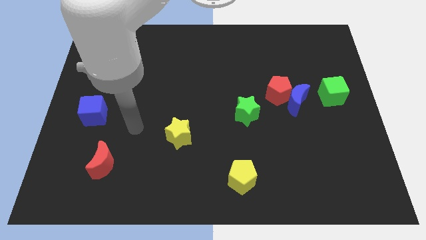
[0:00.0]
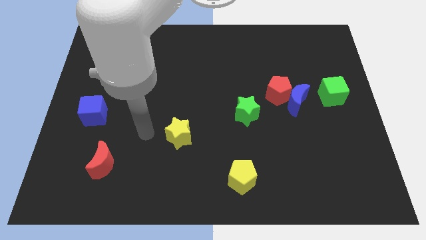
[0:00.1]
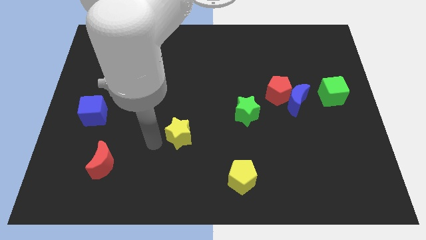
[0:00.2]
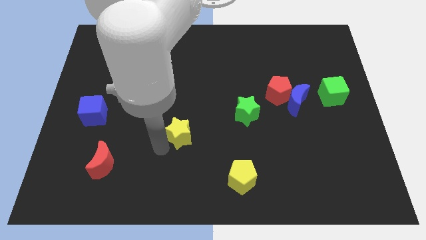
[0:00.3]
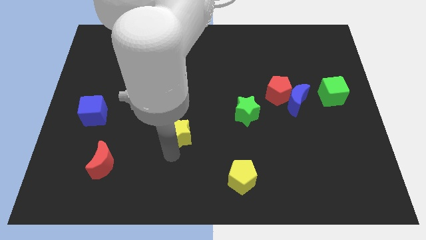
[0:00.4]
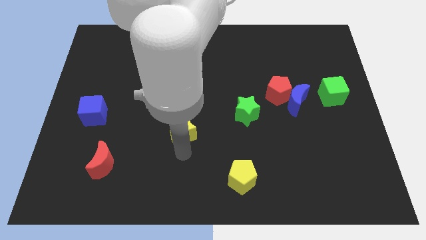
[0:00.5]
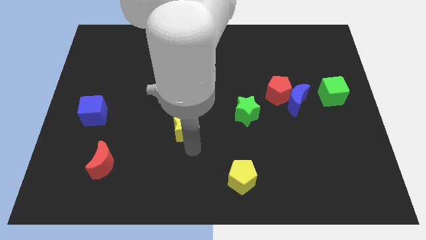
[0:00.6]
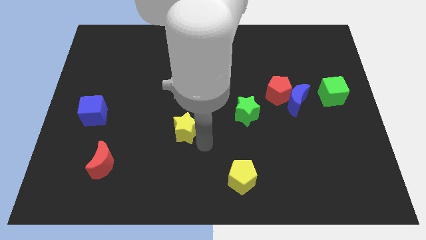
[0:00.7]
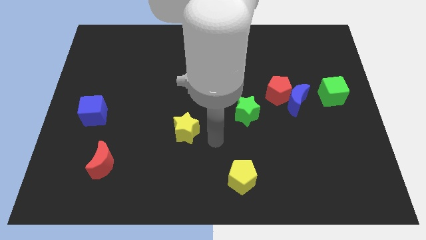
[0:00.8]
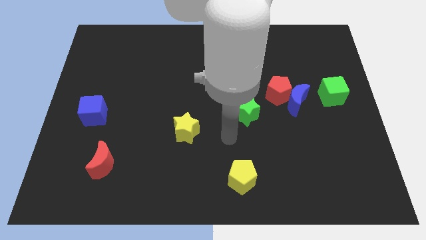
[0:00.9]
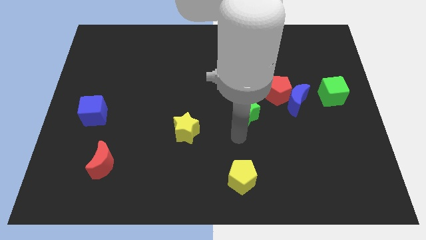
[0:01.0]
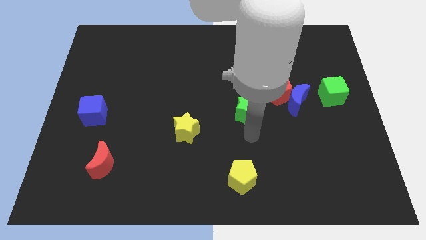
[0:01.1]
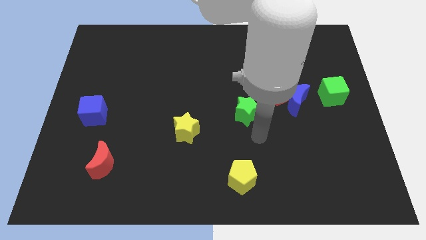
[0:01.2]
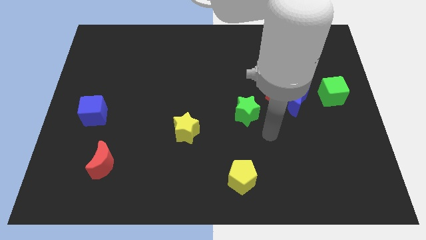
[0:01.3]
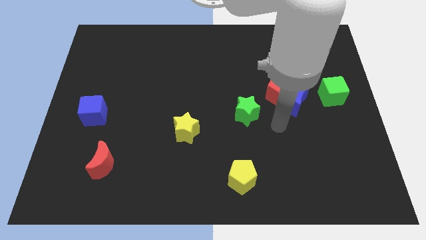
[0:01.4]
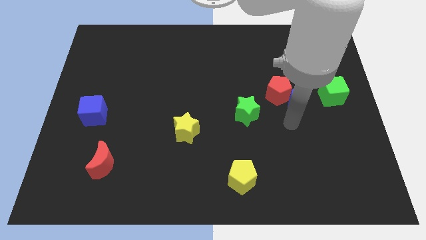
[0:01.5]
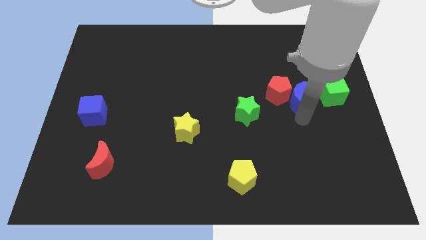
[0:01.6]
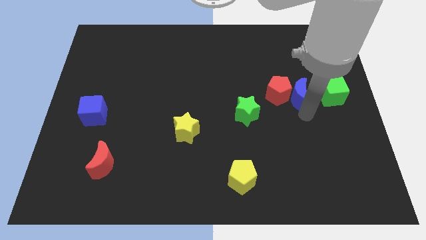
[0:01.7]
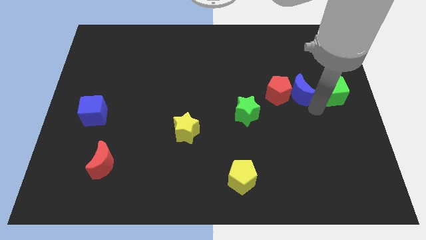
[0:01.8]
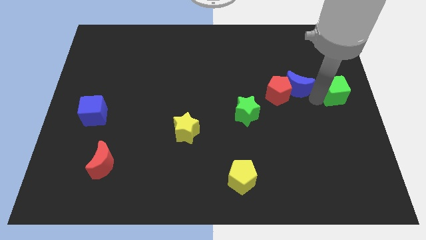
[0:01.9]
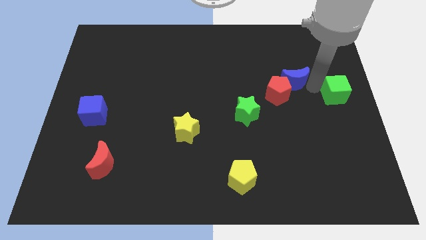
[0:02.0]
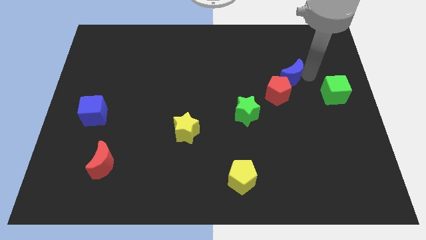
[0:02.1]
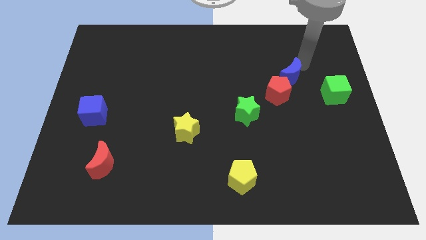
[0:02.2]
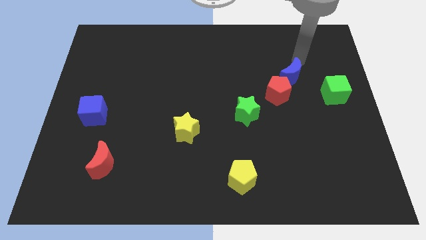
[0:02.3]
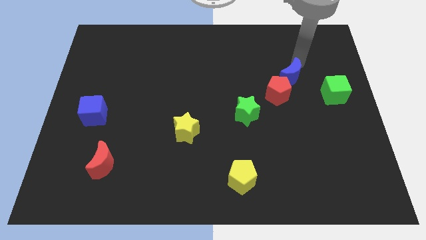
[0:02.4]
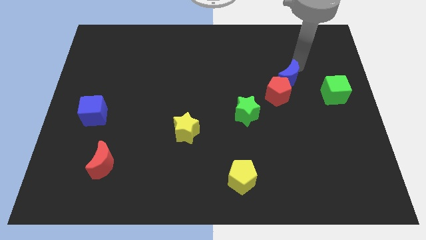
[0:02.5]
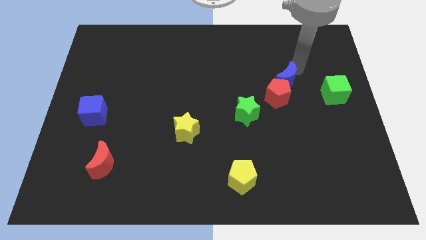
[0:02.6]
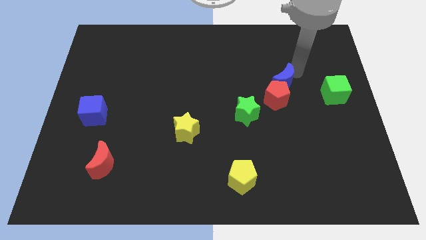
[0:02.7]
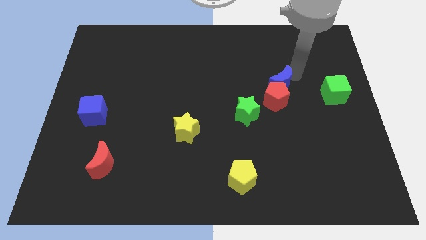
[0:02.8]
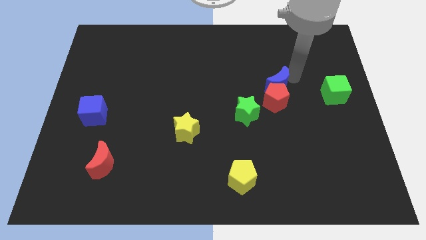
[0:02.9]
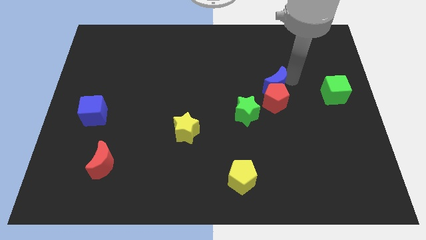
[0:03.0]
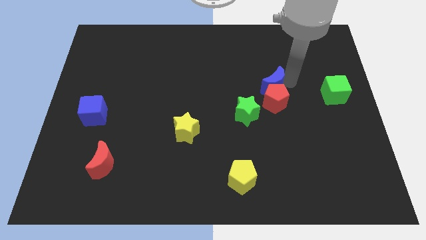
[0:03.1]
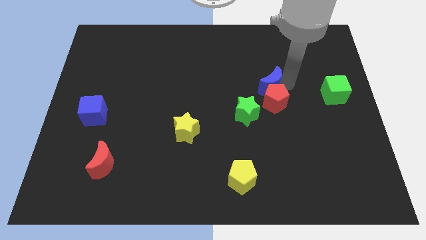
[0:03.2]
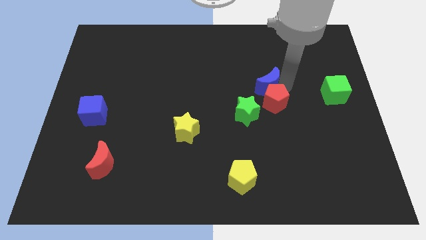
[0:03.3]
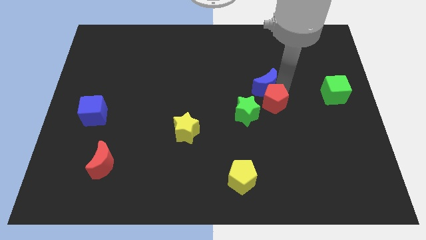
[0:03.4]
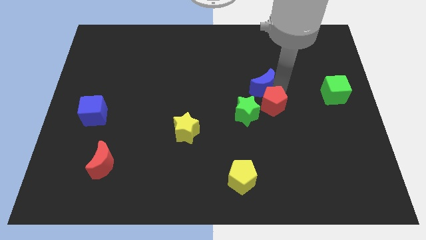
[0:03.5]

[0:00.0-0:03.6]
pull the blue moon apart from the red pentagon and green cube

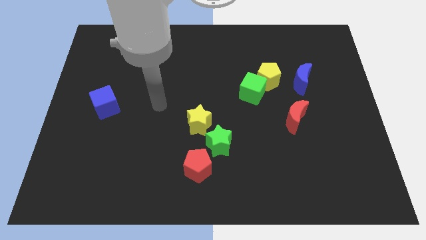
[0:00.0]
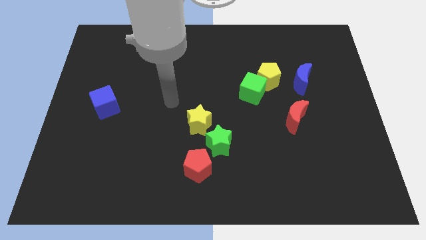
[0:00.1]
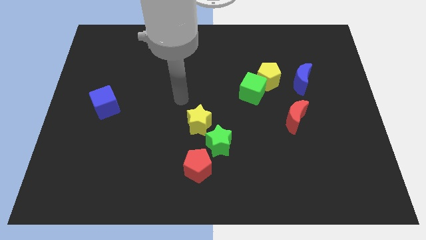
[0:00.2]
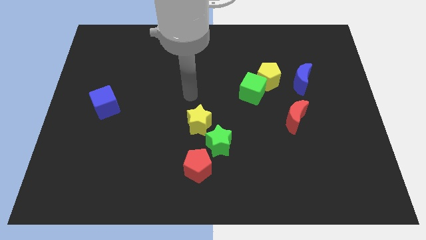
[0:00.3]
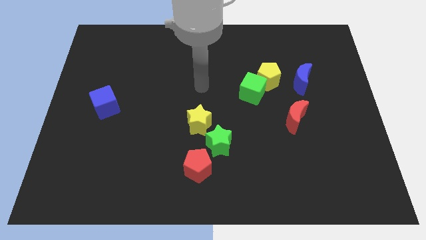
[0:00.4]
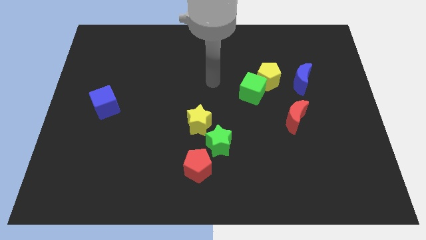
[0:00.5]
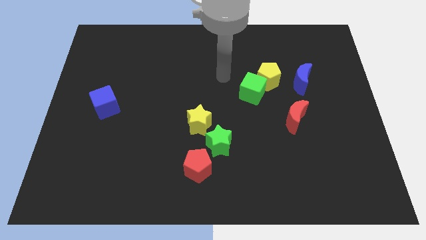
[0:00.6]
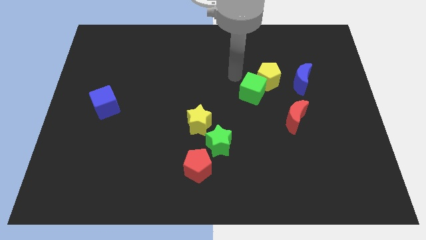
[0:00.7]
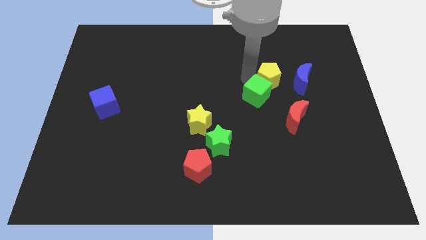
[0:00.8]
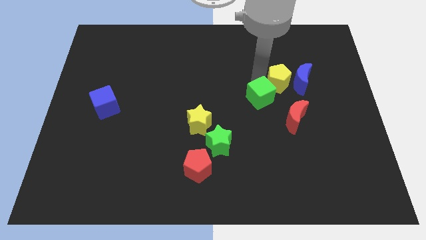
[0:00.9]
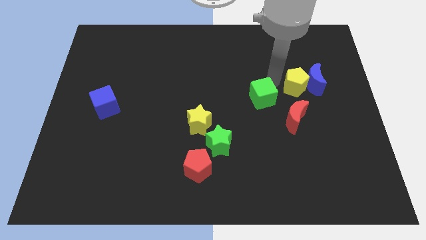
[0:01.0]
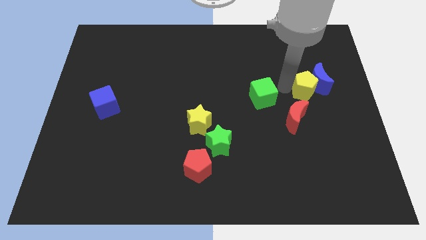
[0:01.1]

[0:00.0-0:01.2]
pull the green cube apart from the yellow pentagon

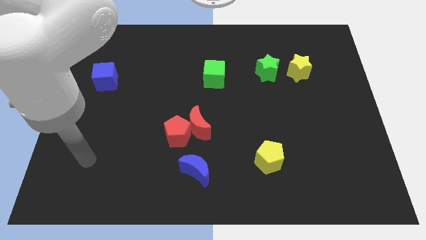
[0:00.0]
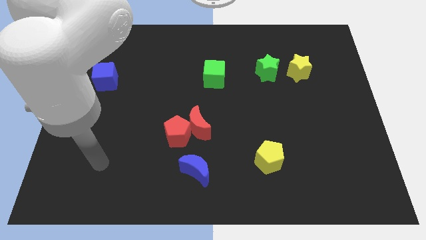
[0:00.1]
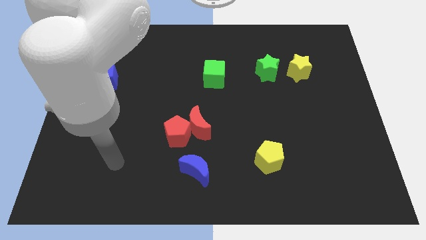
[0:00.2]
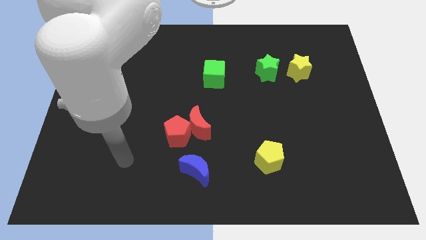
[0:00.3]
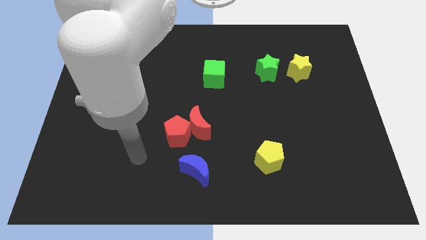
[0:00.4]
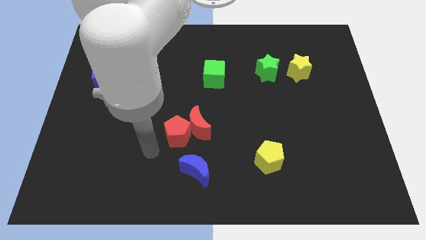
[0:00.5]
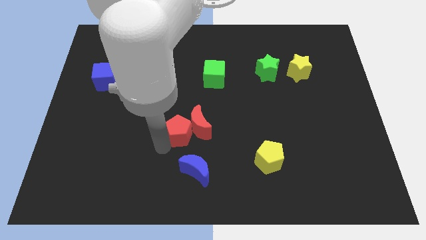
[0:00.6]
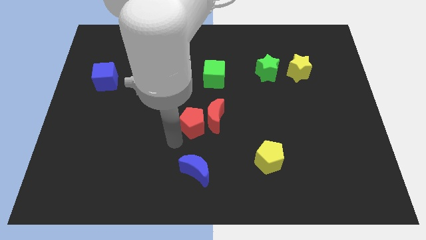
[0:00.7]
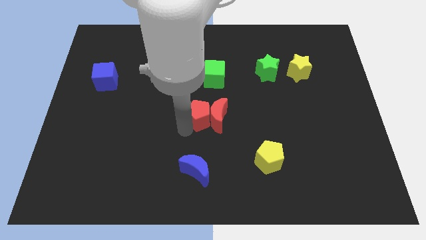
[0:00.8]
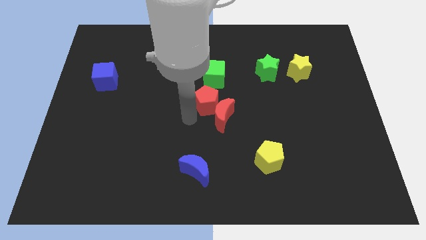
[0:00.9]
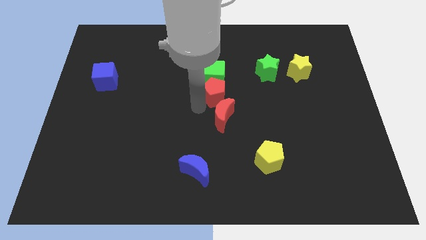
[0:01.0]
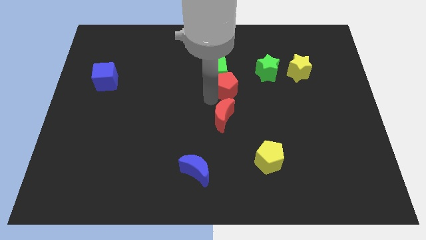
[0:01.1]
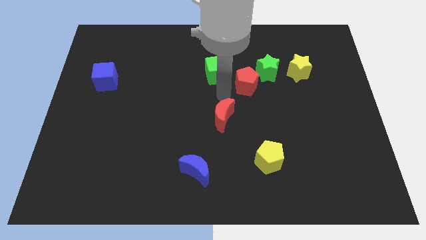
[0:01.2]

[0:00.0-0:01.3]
separate the red moon from the red pentagon

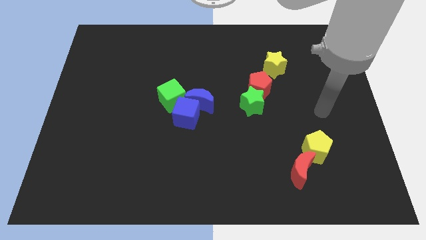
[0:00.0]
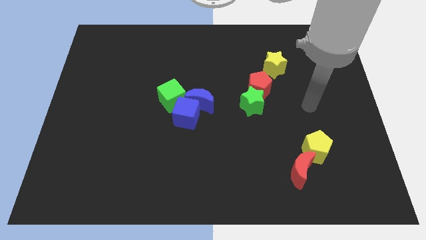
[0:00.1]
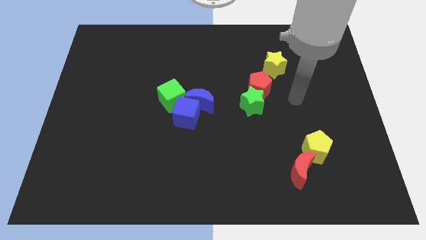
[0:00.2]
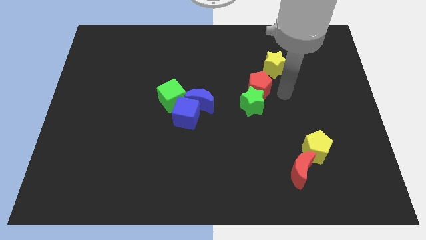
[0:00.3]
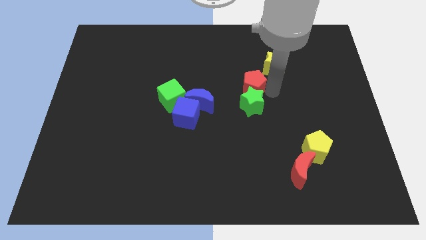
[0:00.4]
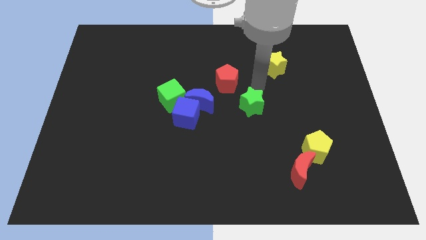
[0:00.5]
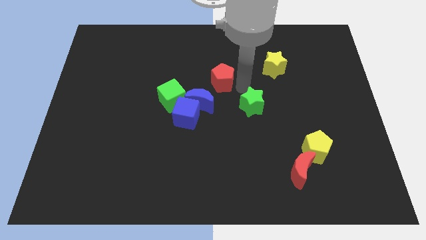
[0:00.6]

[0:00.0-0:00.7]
move the green star away from the red pentagon

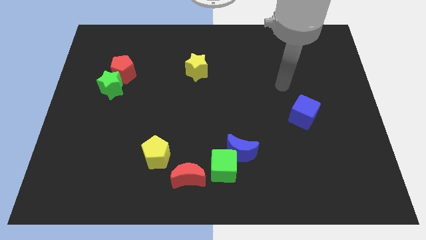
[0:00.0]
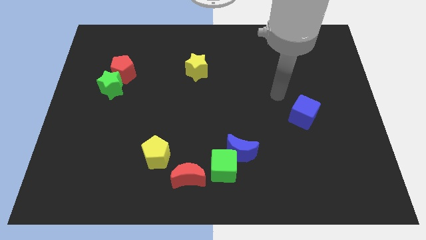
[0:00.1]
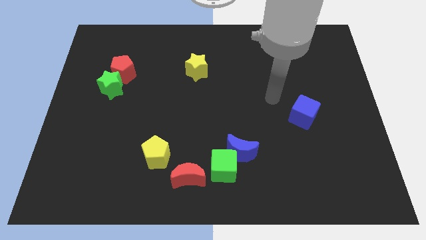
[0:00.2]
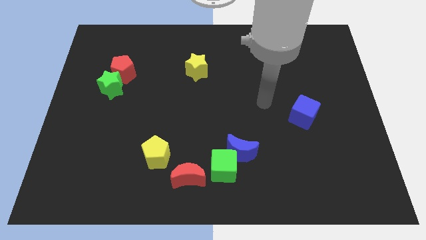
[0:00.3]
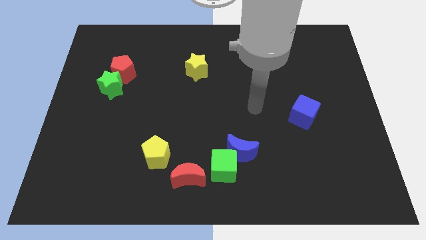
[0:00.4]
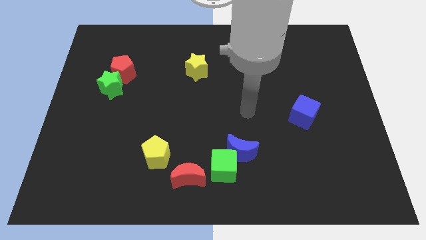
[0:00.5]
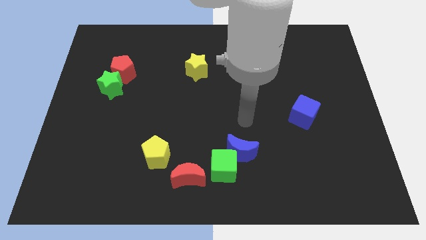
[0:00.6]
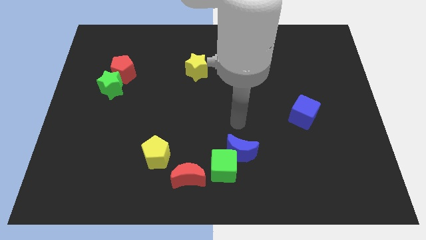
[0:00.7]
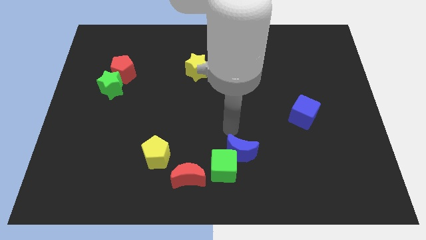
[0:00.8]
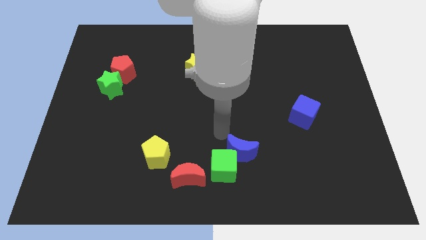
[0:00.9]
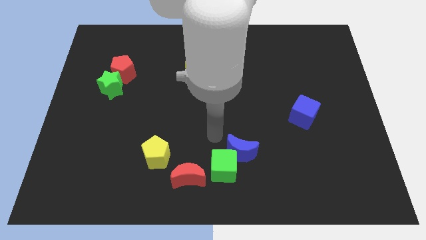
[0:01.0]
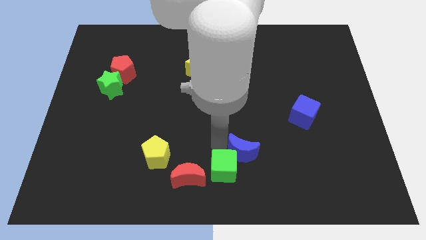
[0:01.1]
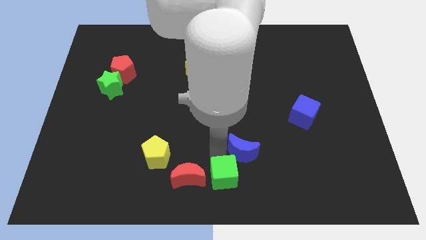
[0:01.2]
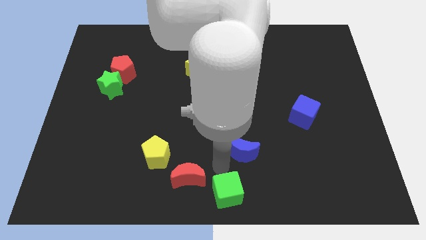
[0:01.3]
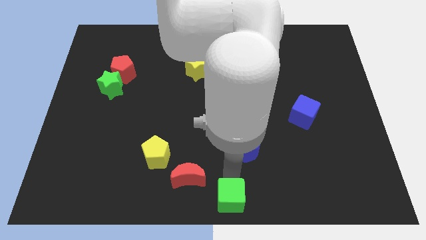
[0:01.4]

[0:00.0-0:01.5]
move the blue moon away from the green cube

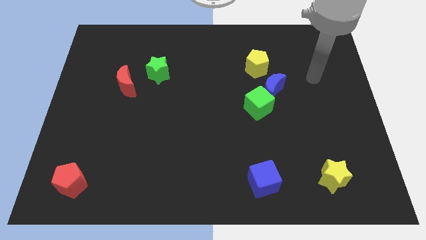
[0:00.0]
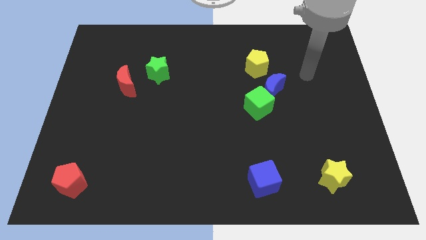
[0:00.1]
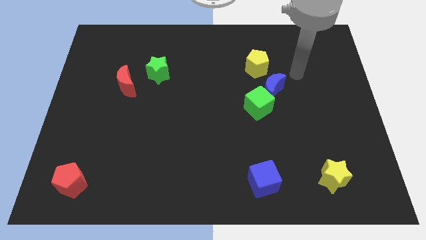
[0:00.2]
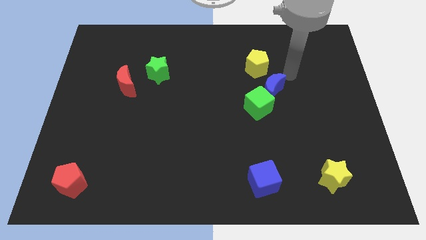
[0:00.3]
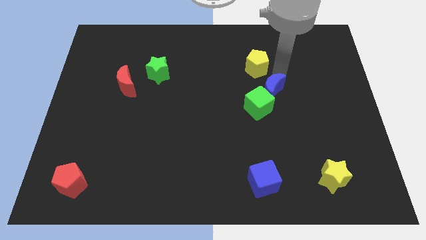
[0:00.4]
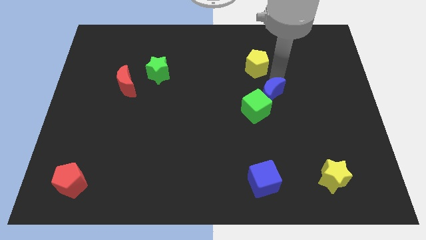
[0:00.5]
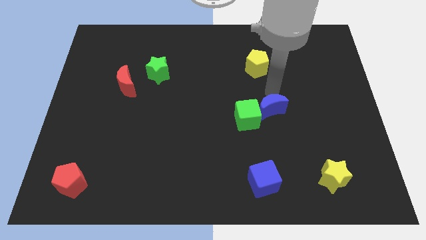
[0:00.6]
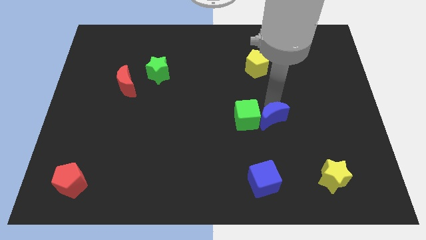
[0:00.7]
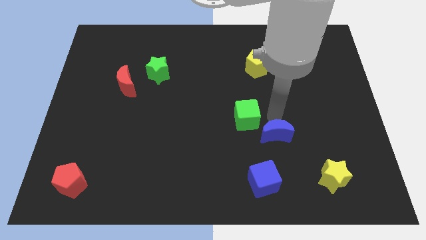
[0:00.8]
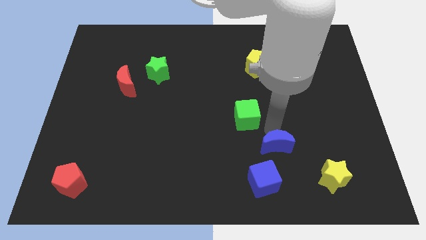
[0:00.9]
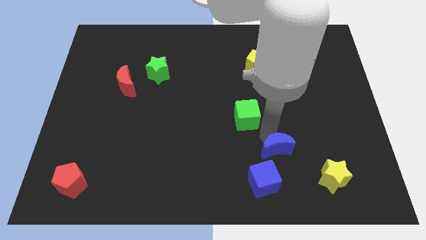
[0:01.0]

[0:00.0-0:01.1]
separate the green cube from the blue moon
